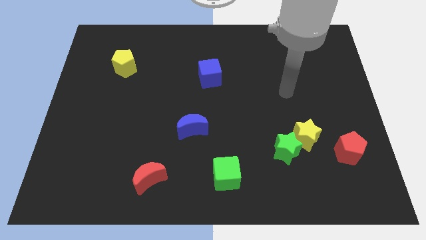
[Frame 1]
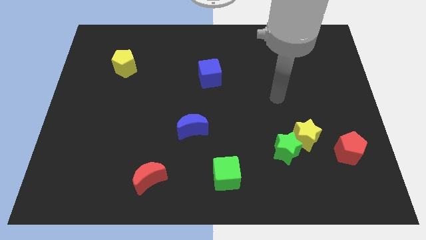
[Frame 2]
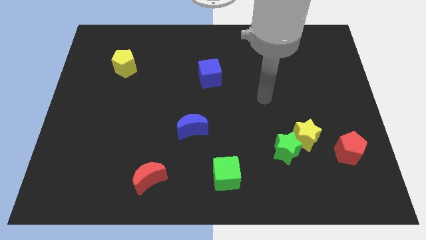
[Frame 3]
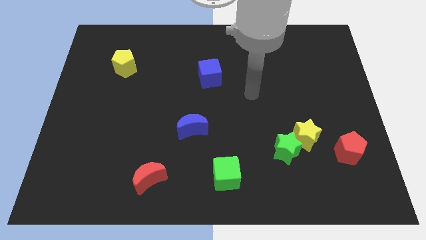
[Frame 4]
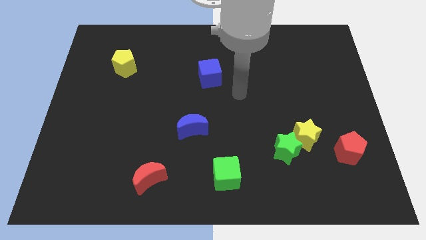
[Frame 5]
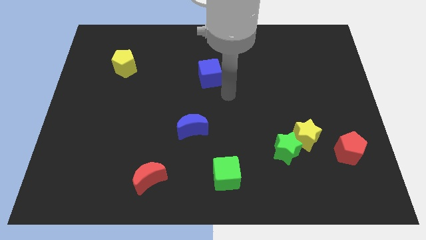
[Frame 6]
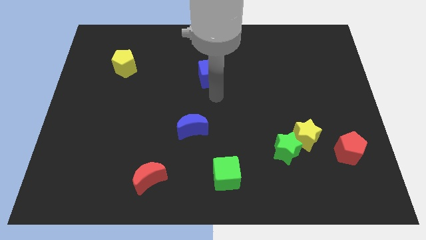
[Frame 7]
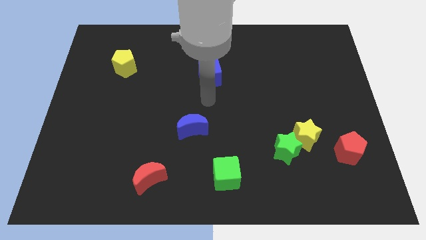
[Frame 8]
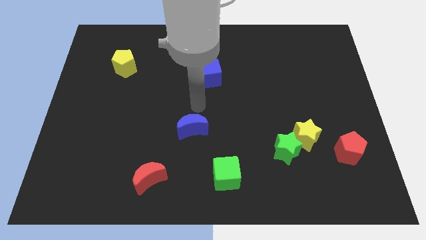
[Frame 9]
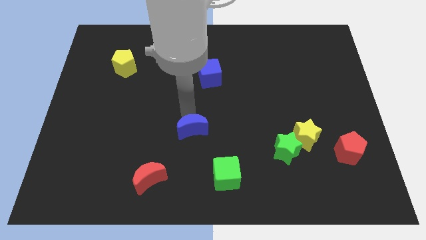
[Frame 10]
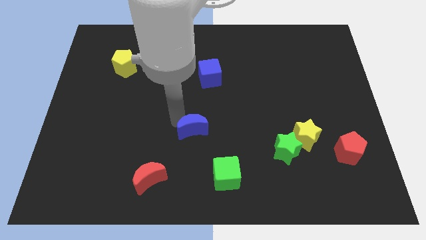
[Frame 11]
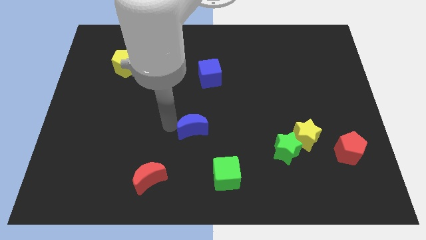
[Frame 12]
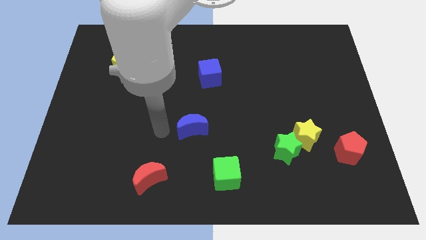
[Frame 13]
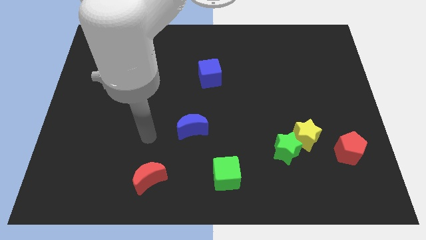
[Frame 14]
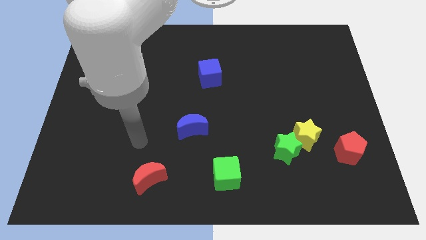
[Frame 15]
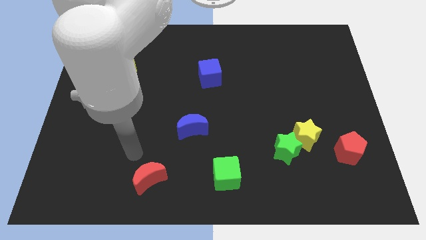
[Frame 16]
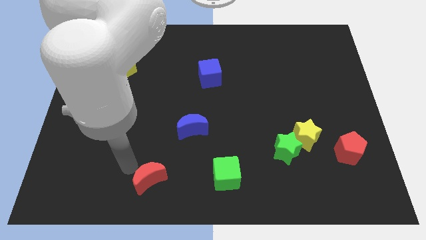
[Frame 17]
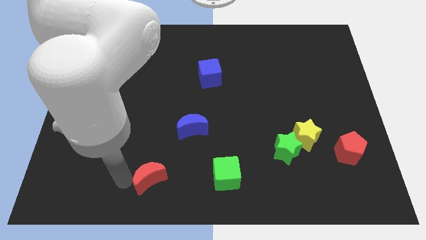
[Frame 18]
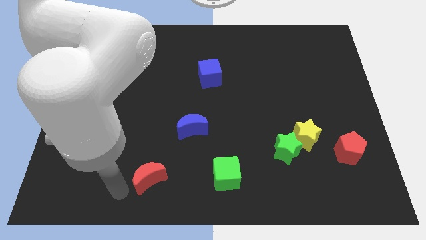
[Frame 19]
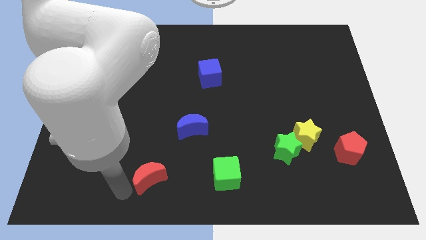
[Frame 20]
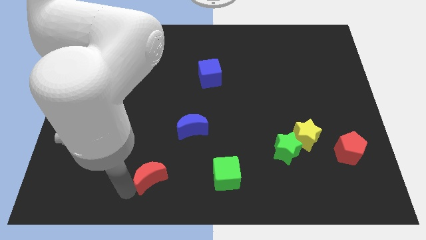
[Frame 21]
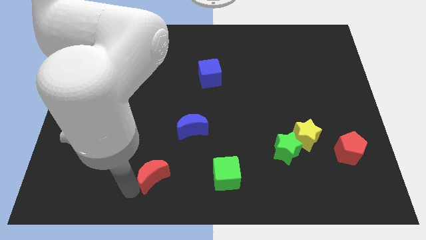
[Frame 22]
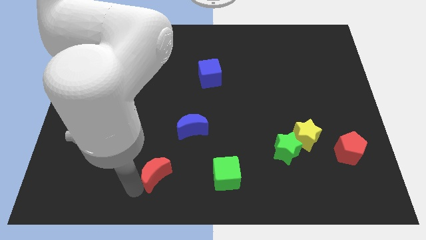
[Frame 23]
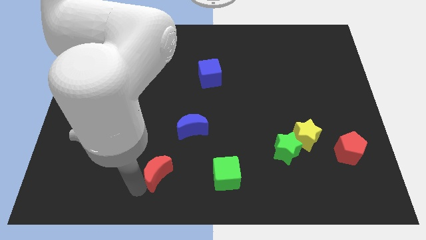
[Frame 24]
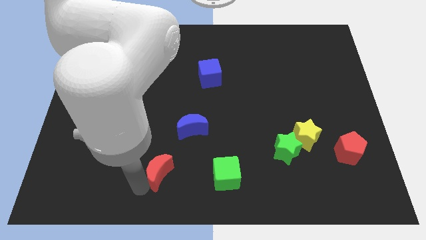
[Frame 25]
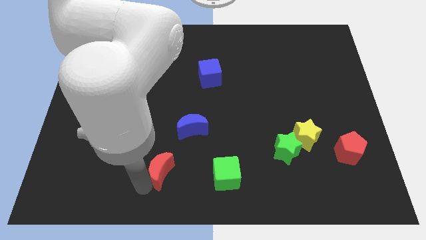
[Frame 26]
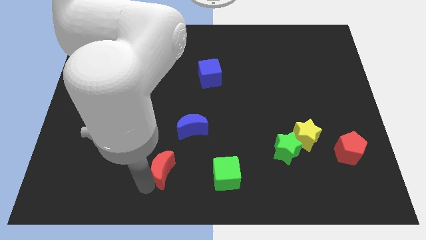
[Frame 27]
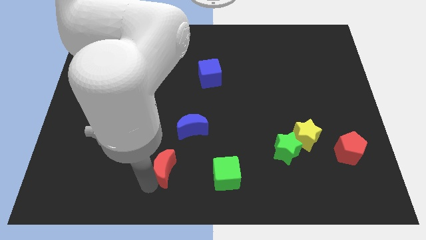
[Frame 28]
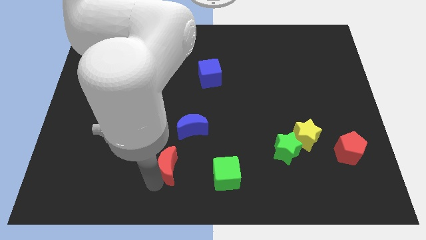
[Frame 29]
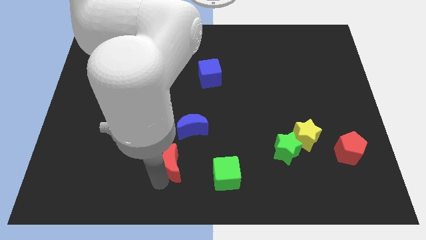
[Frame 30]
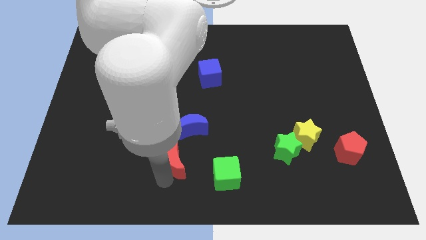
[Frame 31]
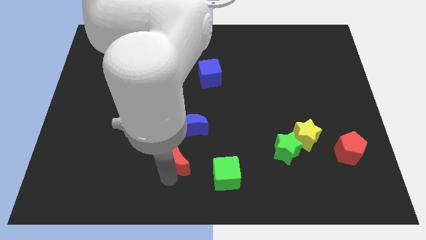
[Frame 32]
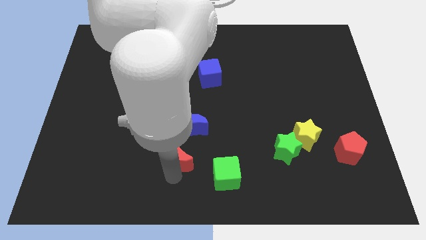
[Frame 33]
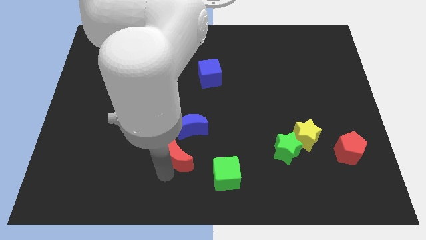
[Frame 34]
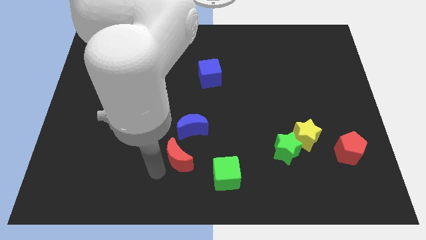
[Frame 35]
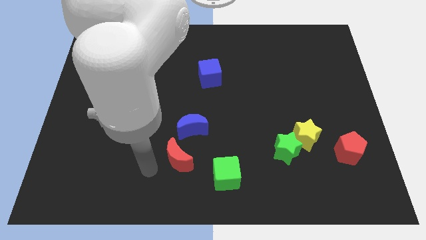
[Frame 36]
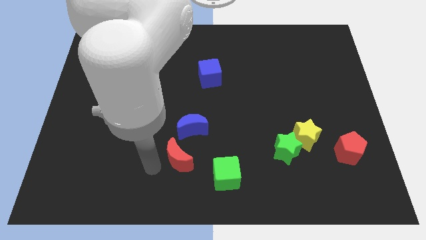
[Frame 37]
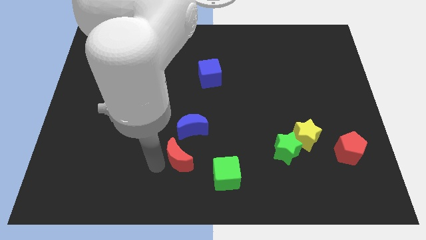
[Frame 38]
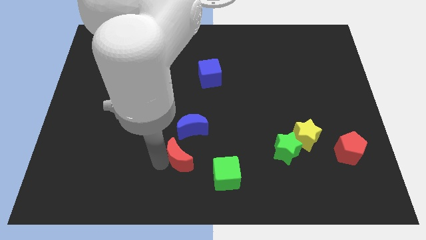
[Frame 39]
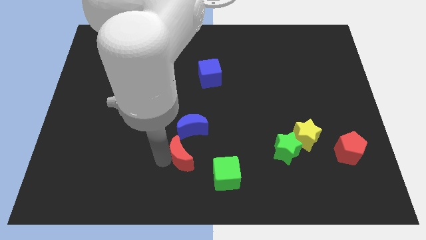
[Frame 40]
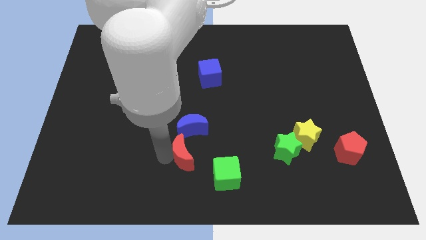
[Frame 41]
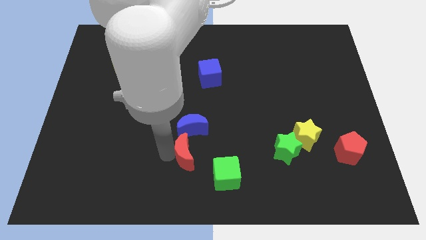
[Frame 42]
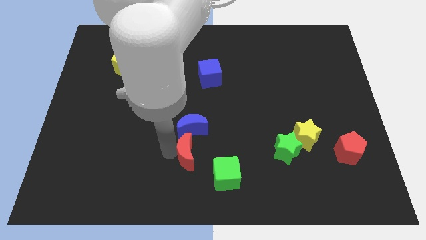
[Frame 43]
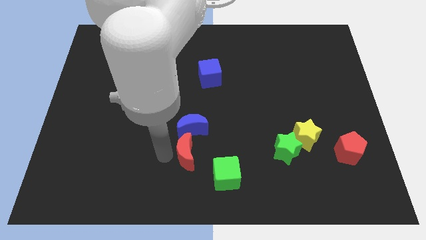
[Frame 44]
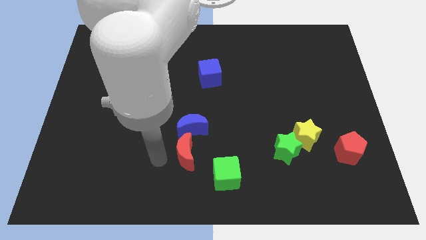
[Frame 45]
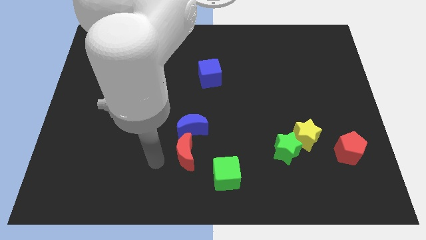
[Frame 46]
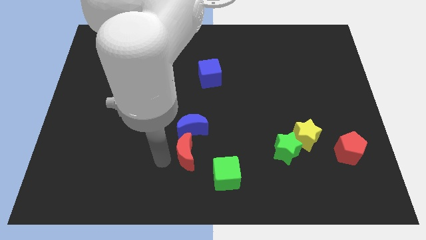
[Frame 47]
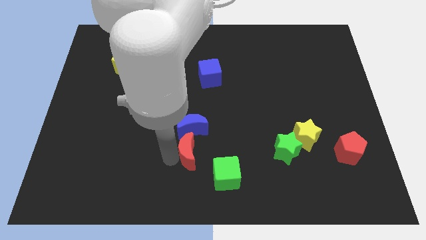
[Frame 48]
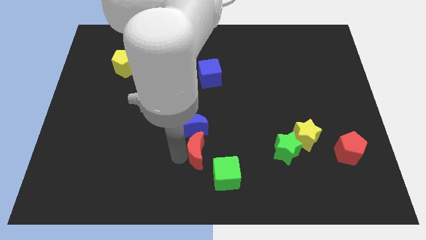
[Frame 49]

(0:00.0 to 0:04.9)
move the red moon to the bottom right side of the blue moon

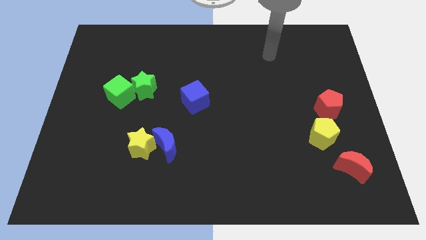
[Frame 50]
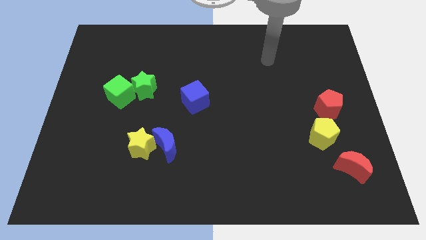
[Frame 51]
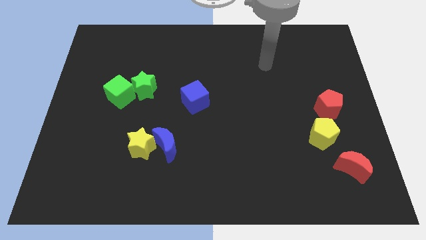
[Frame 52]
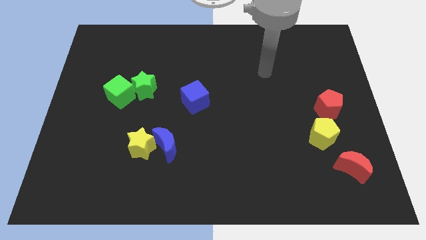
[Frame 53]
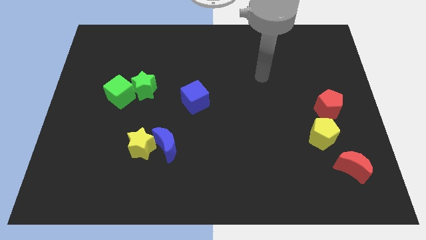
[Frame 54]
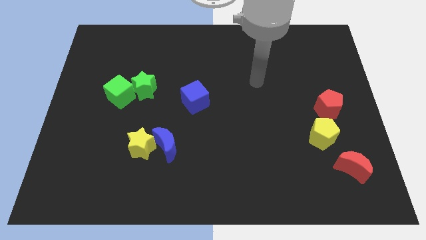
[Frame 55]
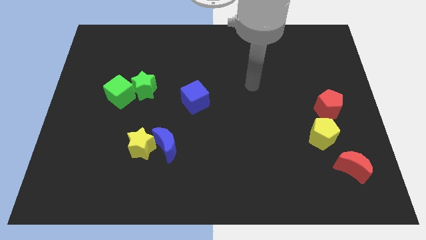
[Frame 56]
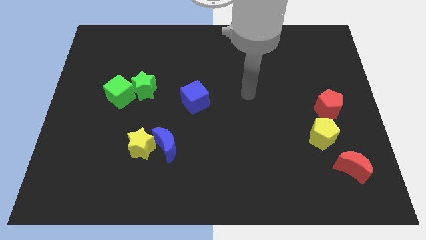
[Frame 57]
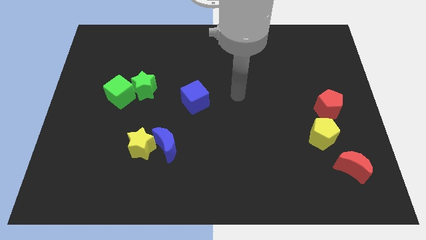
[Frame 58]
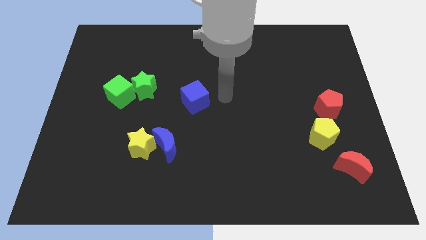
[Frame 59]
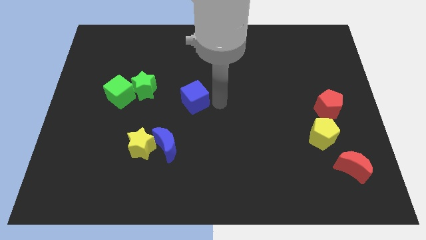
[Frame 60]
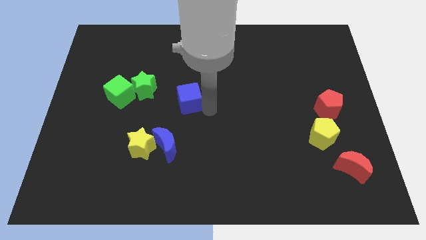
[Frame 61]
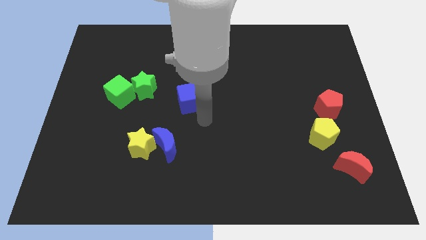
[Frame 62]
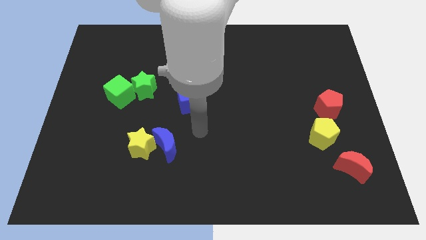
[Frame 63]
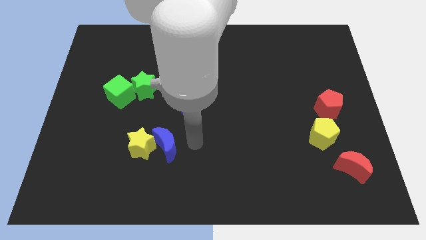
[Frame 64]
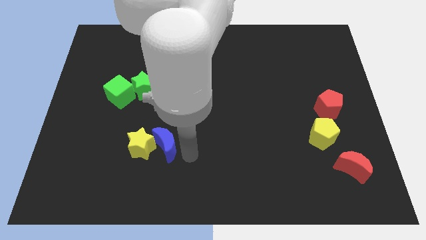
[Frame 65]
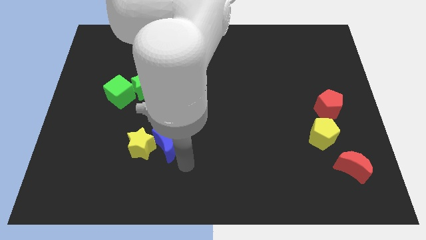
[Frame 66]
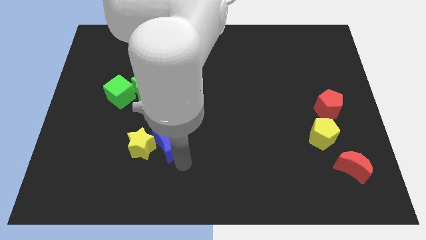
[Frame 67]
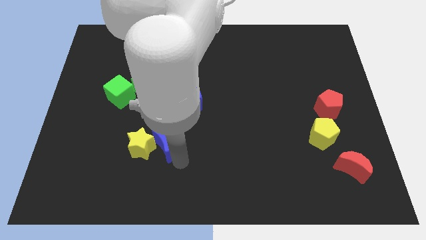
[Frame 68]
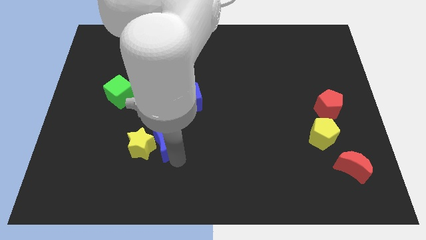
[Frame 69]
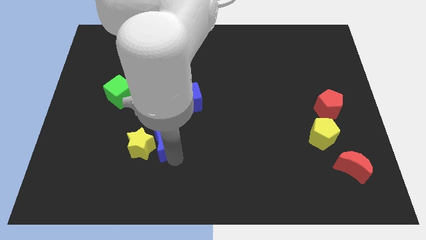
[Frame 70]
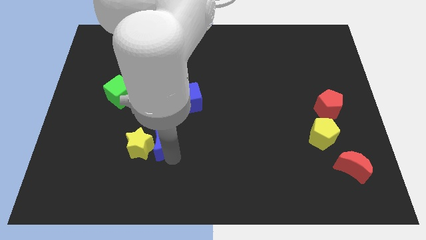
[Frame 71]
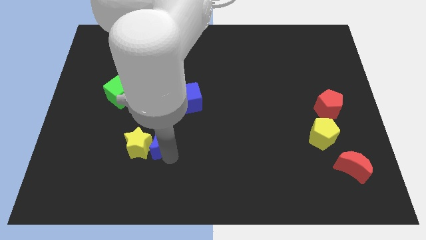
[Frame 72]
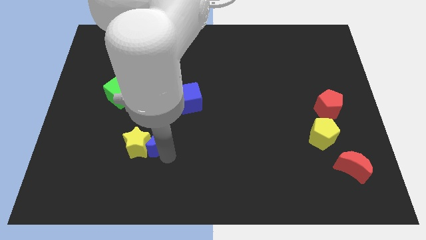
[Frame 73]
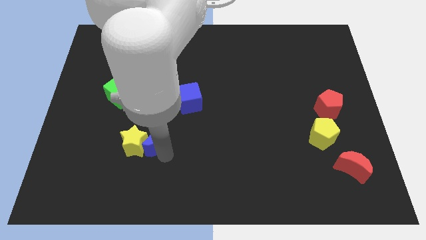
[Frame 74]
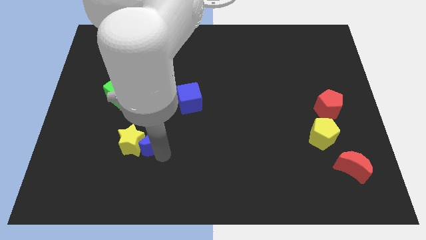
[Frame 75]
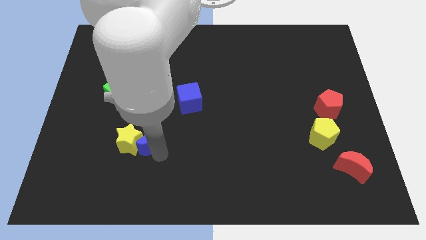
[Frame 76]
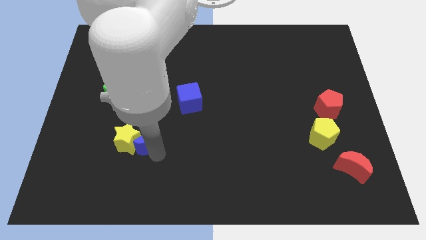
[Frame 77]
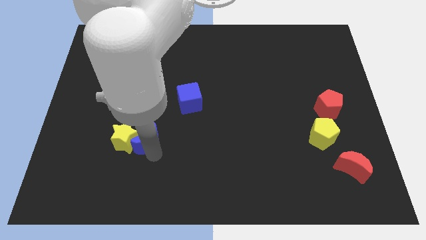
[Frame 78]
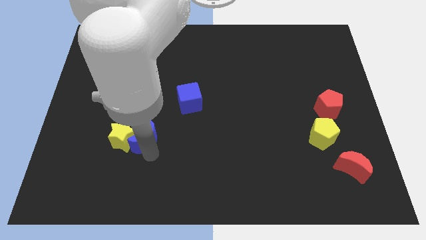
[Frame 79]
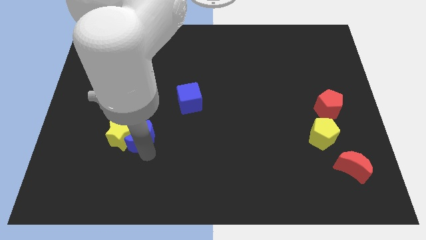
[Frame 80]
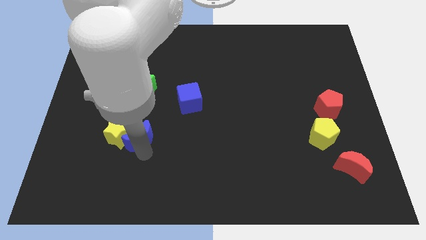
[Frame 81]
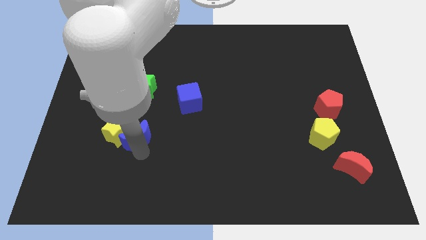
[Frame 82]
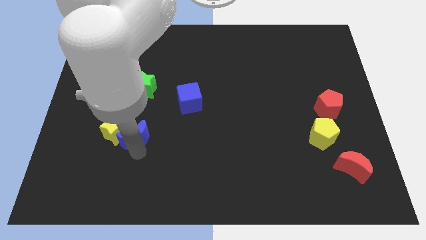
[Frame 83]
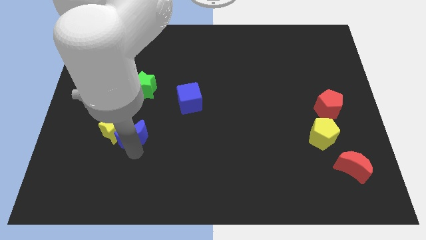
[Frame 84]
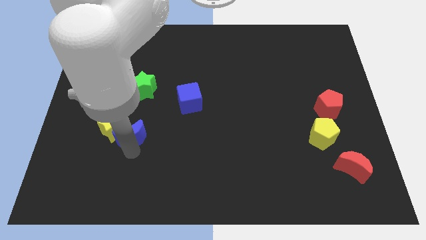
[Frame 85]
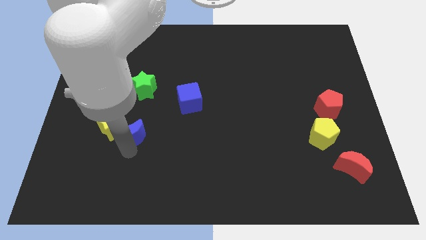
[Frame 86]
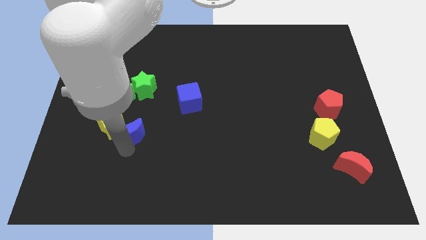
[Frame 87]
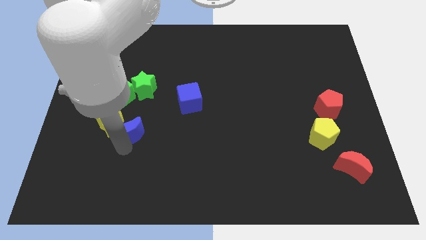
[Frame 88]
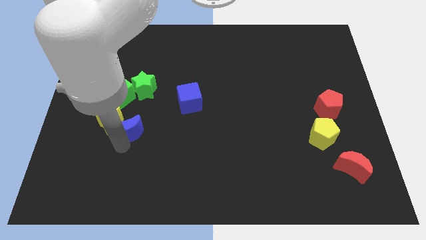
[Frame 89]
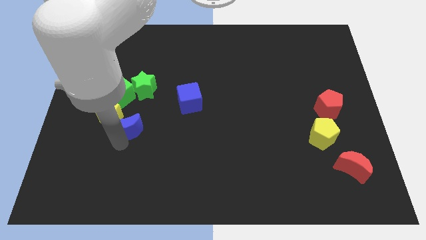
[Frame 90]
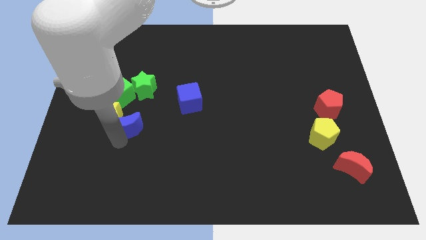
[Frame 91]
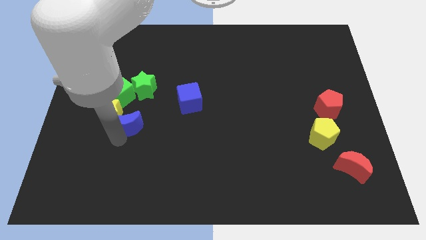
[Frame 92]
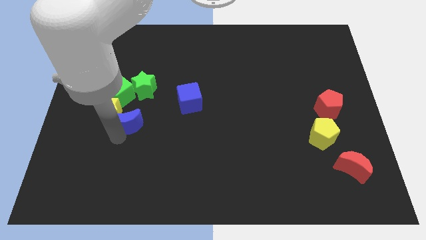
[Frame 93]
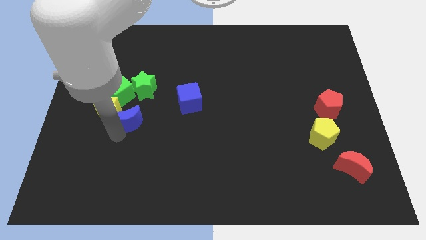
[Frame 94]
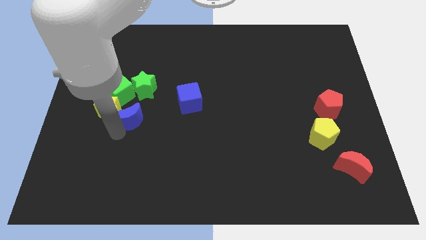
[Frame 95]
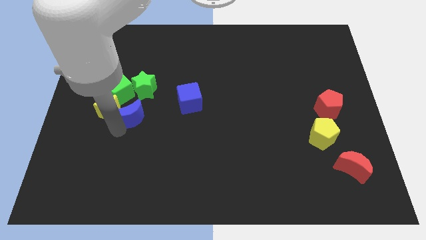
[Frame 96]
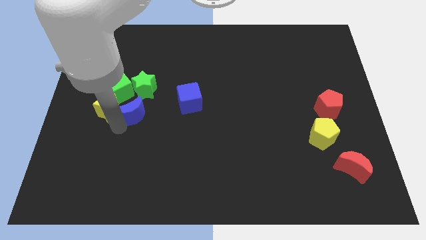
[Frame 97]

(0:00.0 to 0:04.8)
put the blue moon just left of the blue cube
